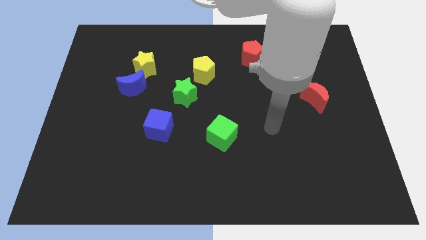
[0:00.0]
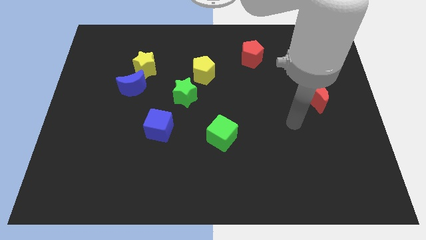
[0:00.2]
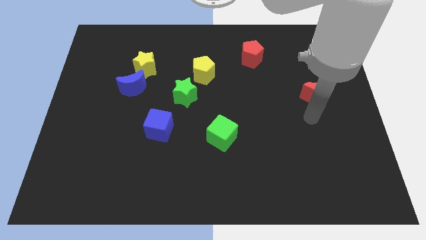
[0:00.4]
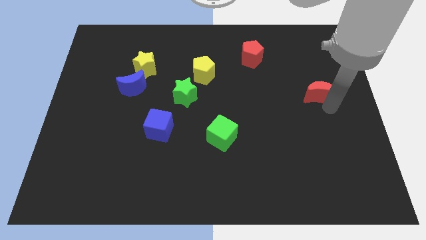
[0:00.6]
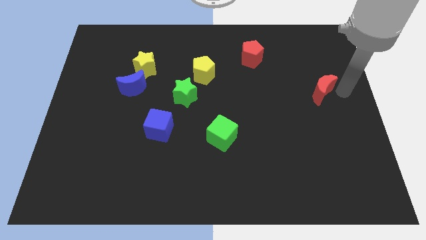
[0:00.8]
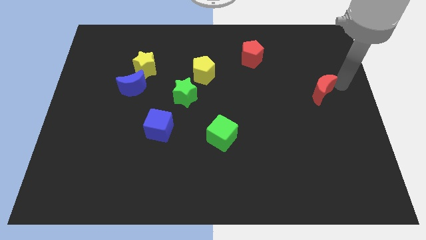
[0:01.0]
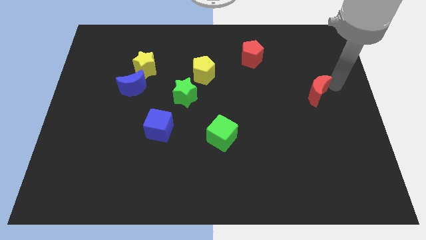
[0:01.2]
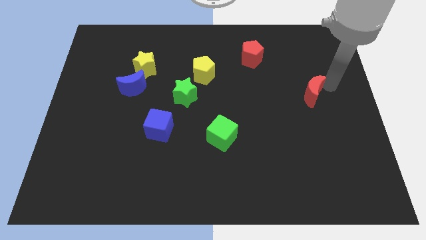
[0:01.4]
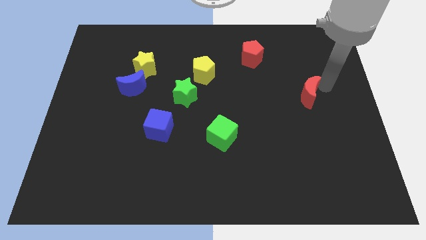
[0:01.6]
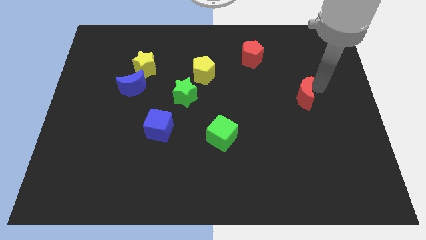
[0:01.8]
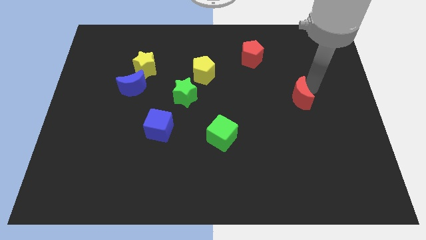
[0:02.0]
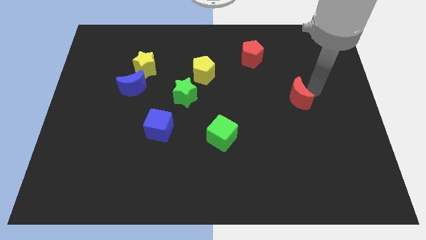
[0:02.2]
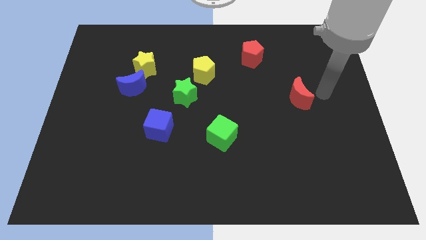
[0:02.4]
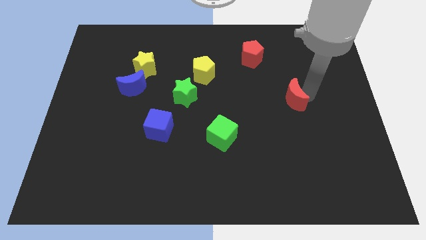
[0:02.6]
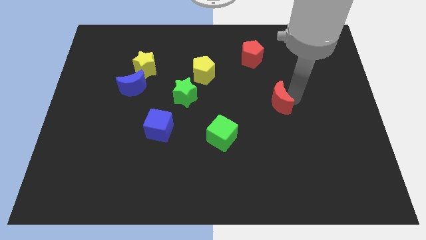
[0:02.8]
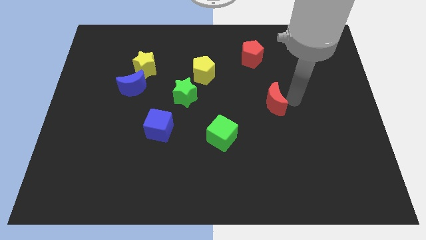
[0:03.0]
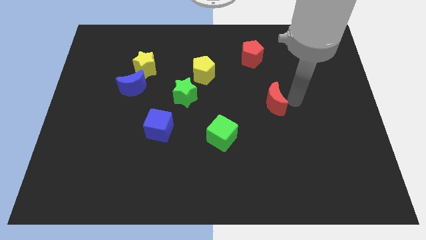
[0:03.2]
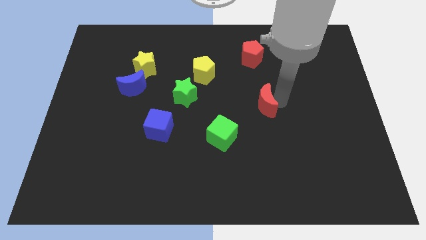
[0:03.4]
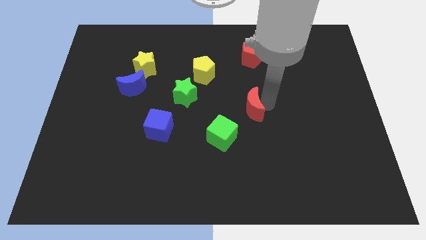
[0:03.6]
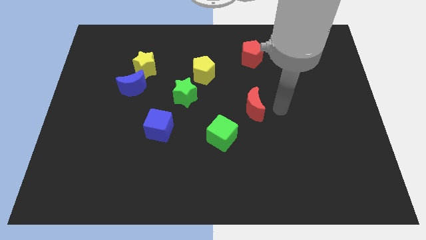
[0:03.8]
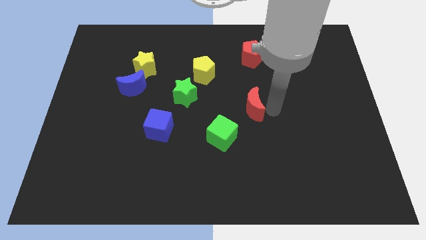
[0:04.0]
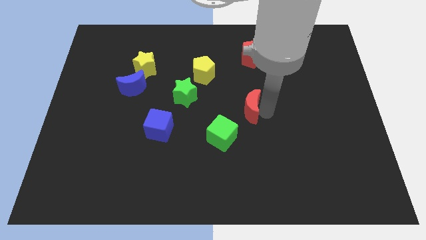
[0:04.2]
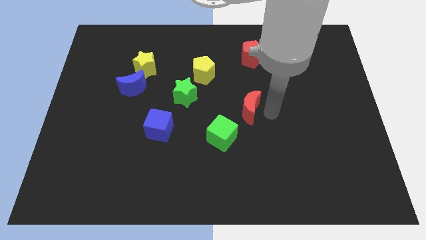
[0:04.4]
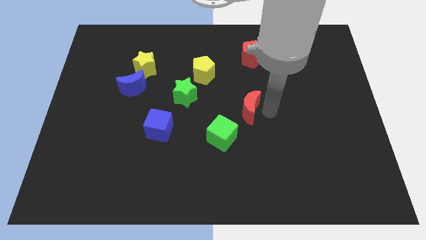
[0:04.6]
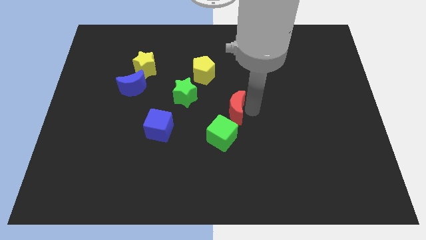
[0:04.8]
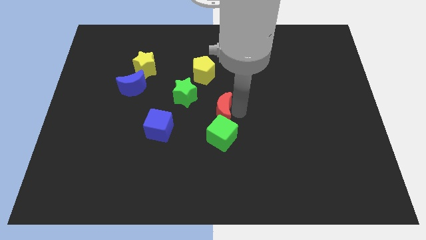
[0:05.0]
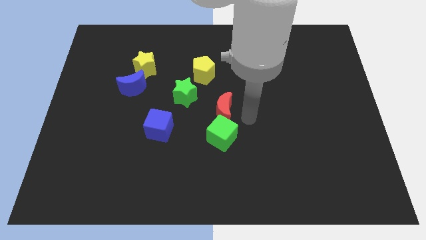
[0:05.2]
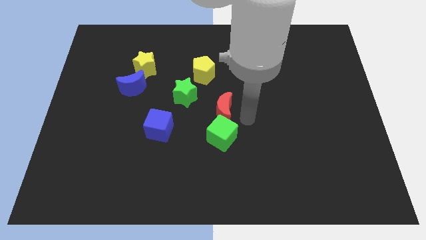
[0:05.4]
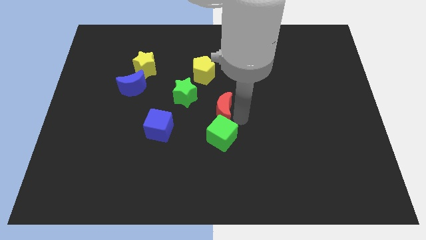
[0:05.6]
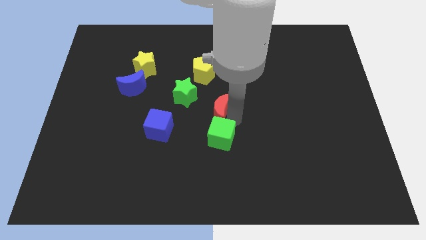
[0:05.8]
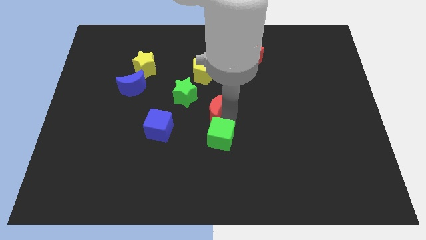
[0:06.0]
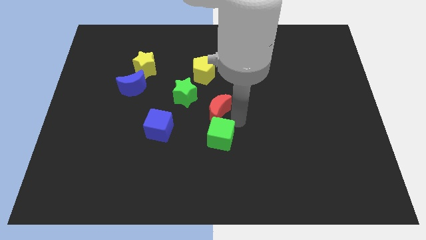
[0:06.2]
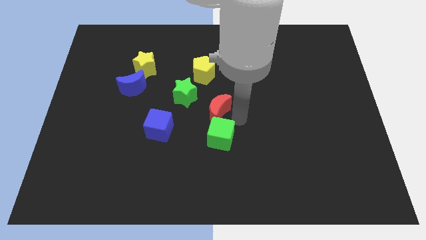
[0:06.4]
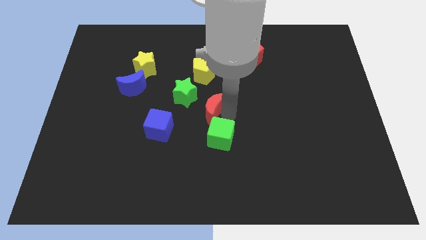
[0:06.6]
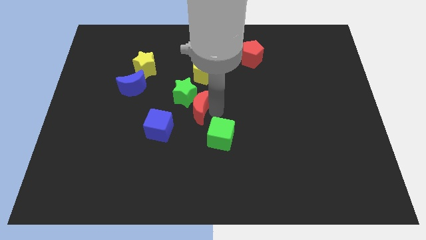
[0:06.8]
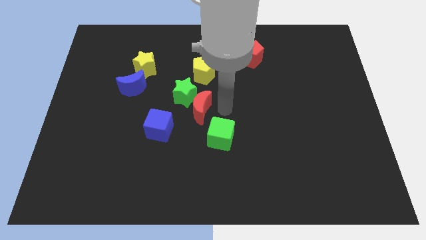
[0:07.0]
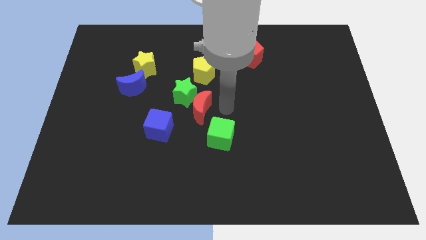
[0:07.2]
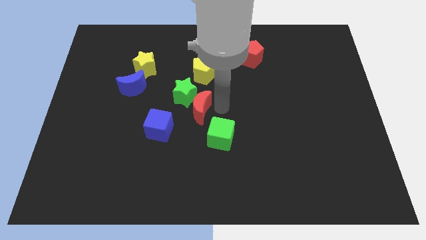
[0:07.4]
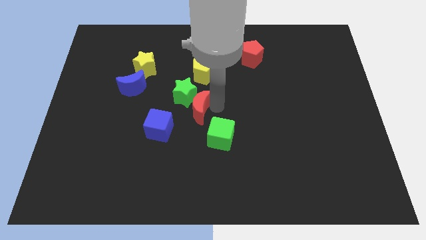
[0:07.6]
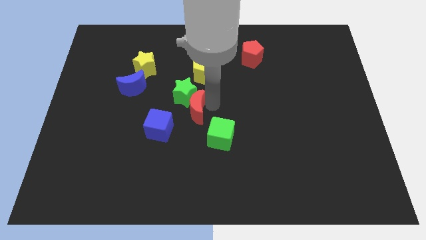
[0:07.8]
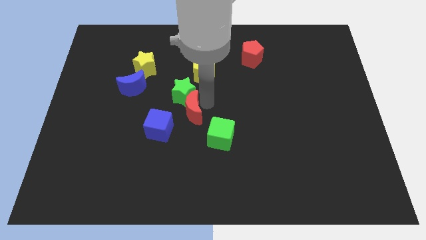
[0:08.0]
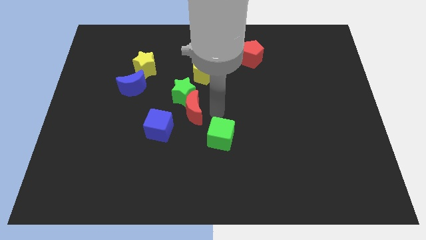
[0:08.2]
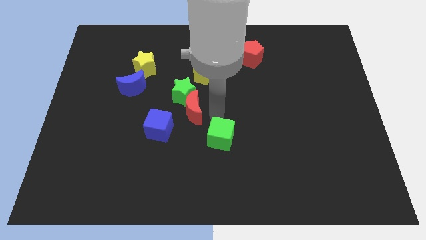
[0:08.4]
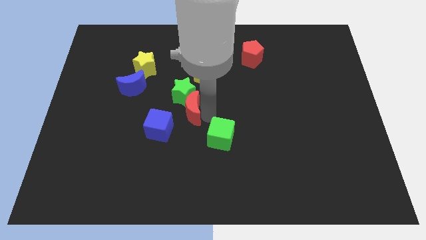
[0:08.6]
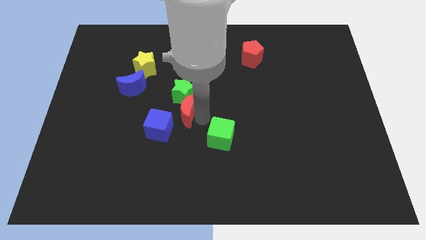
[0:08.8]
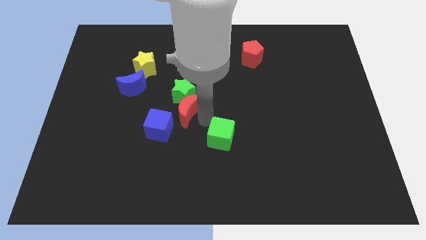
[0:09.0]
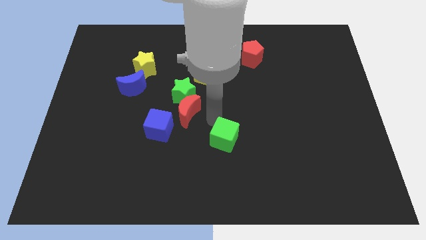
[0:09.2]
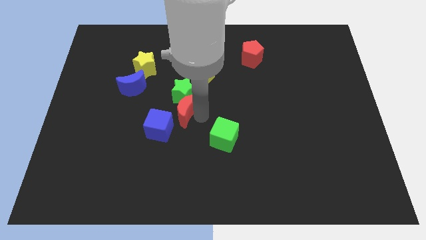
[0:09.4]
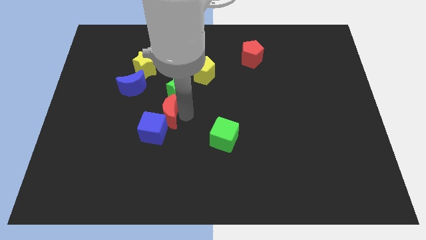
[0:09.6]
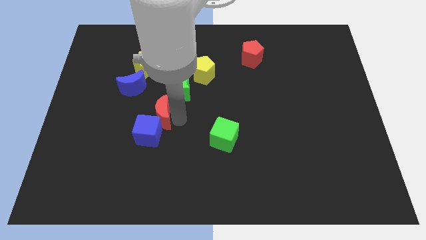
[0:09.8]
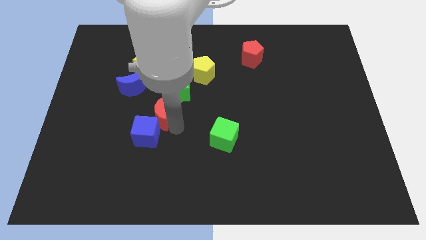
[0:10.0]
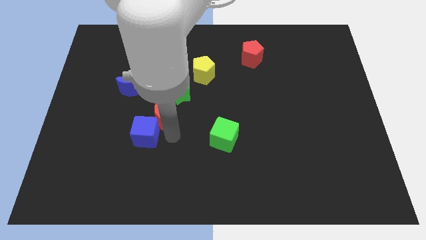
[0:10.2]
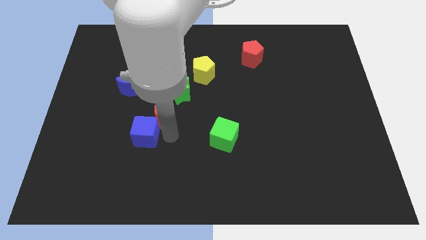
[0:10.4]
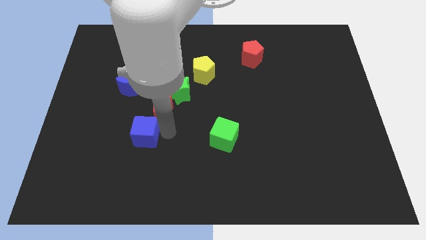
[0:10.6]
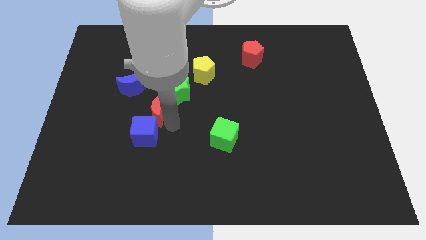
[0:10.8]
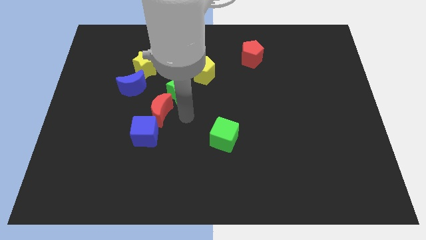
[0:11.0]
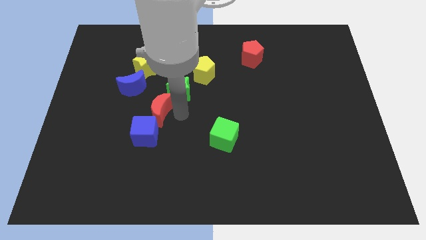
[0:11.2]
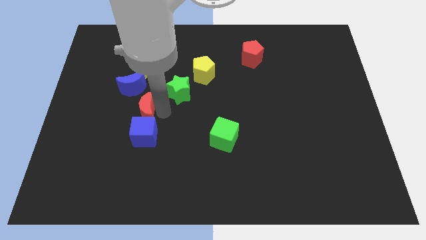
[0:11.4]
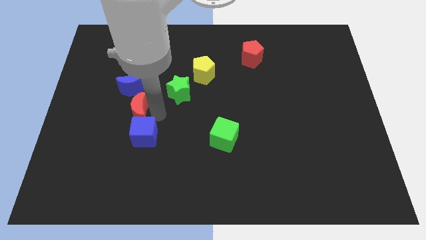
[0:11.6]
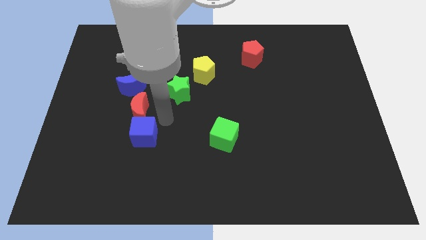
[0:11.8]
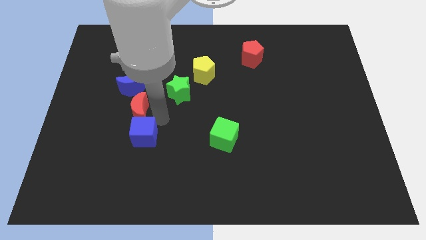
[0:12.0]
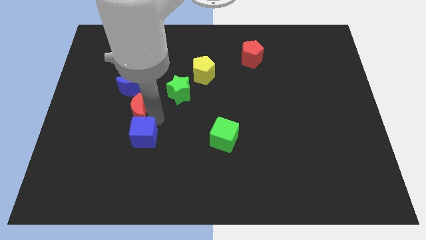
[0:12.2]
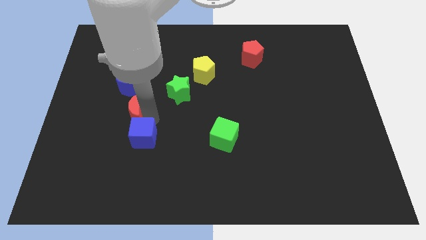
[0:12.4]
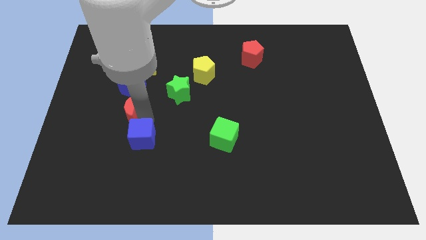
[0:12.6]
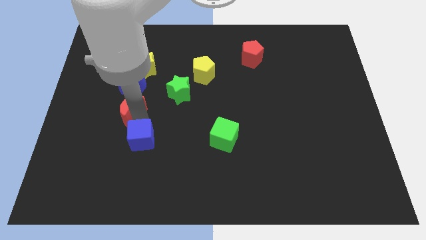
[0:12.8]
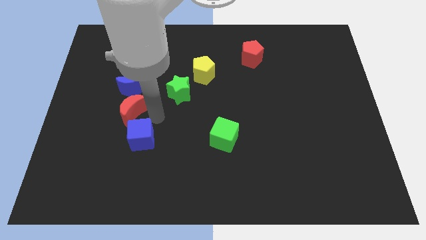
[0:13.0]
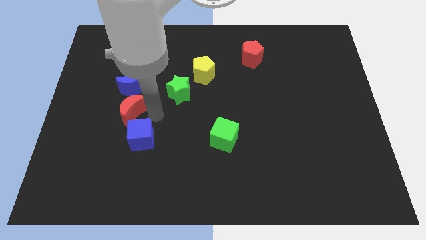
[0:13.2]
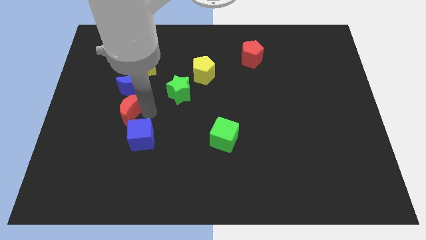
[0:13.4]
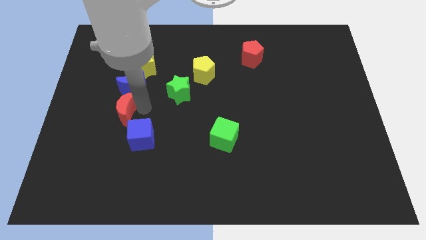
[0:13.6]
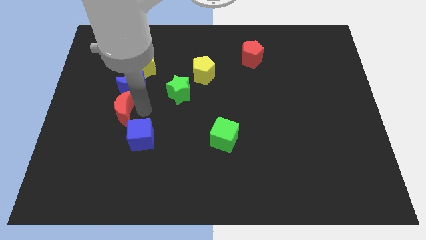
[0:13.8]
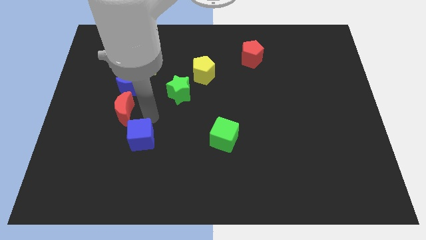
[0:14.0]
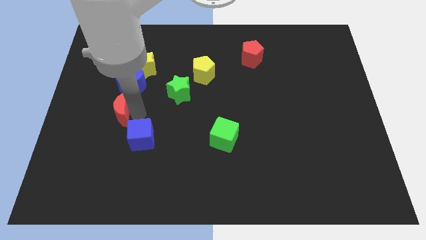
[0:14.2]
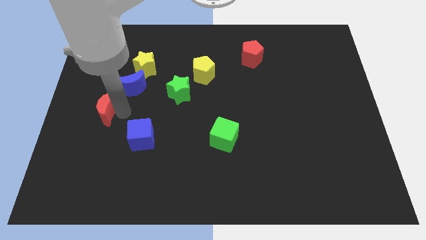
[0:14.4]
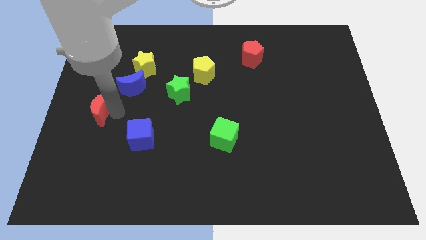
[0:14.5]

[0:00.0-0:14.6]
push the red moon to the center left
